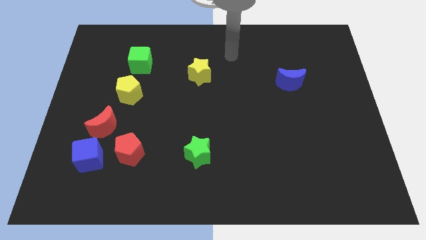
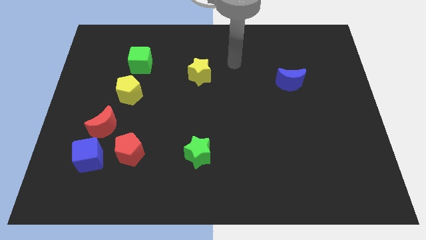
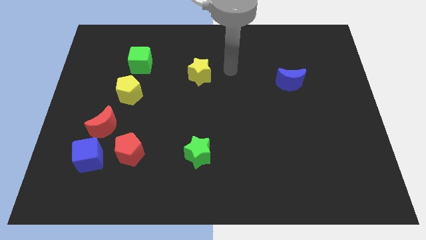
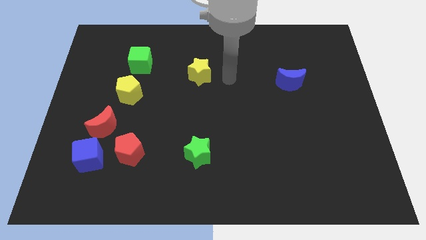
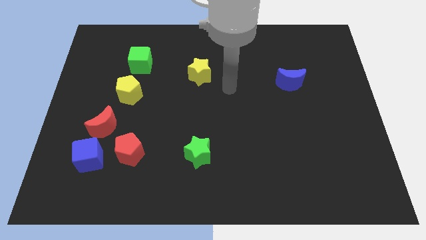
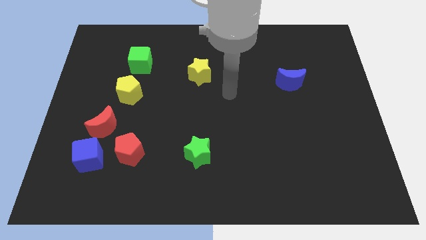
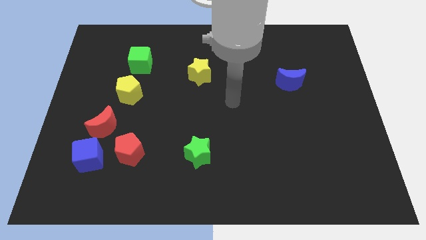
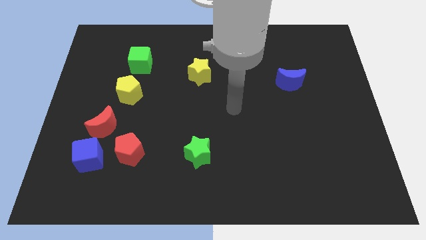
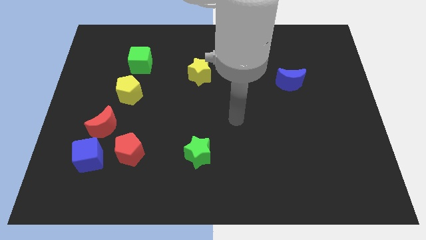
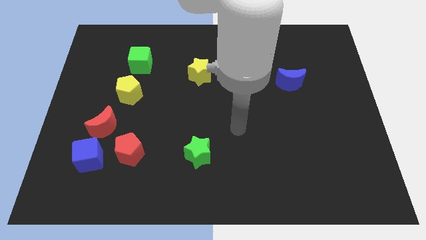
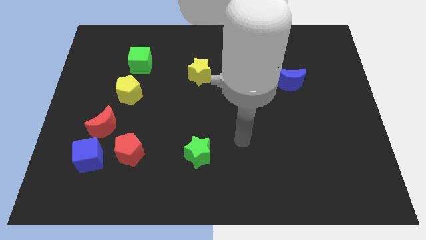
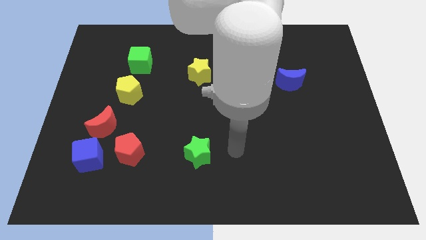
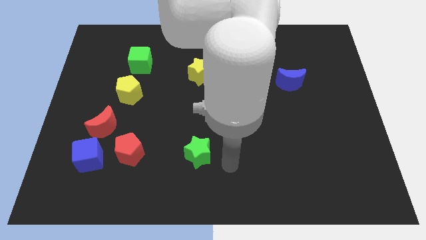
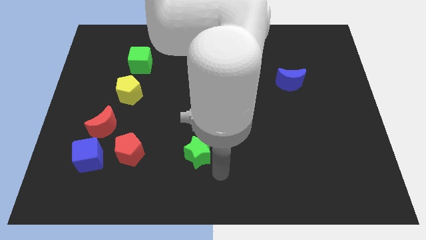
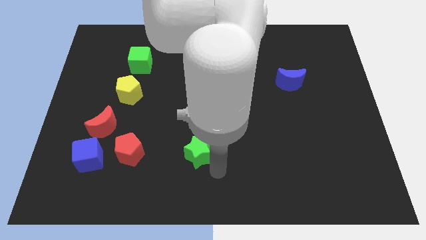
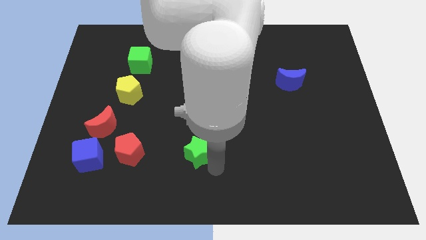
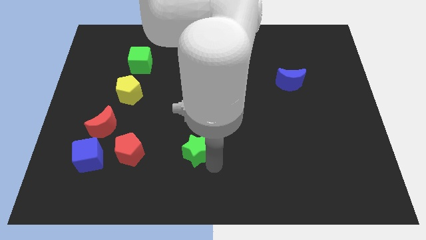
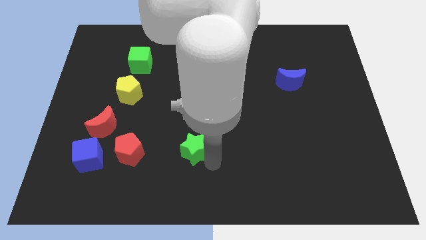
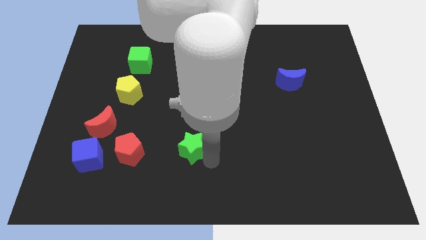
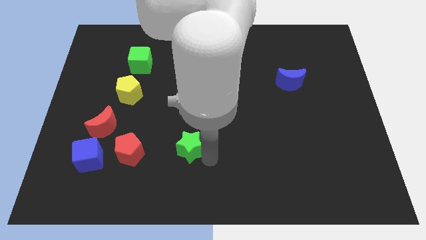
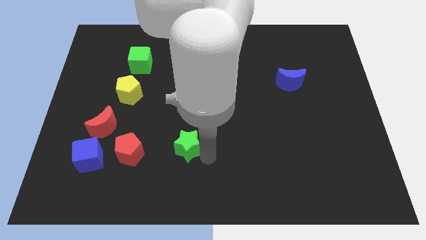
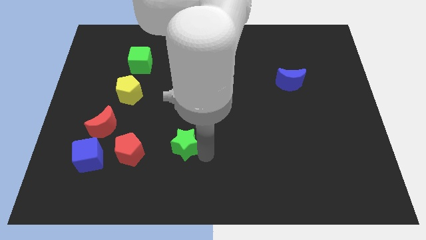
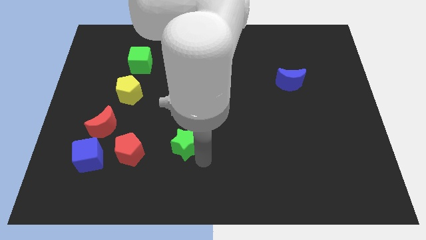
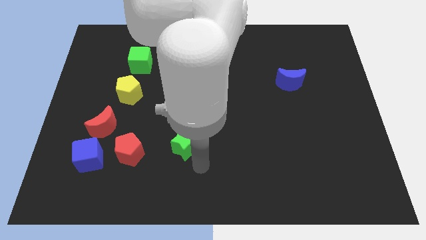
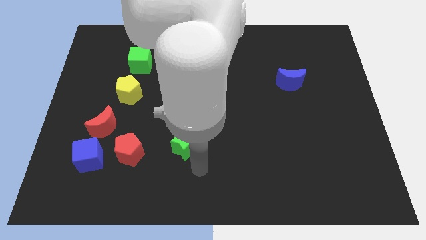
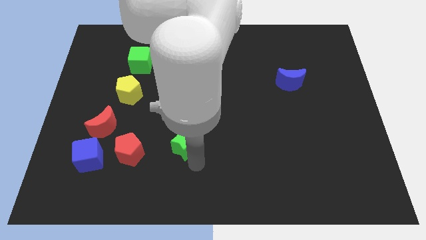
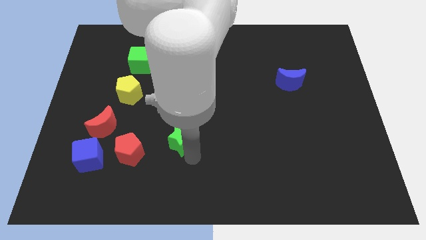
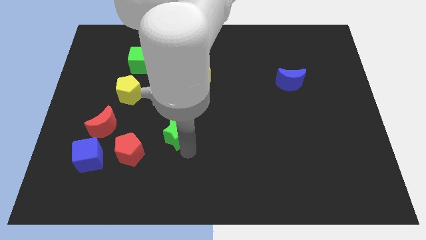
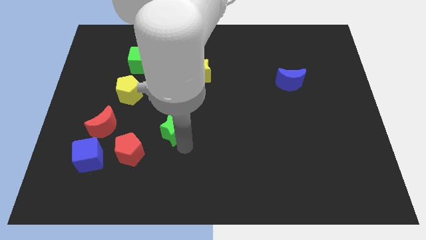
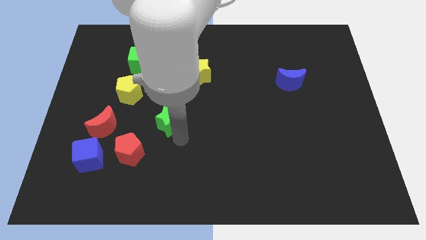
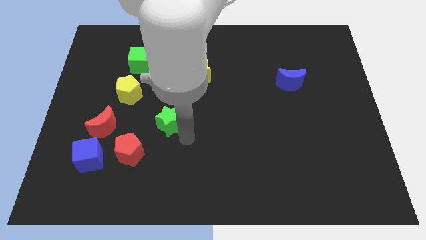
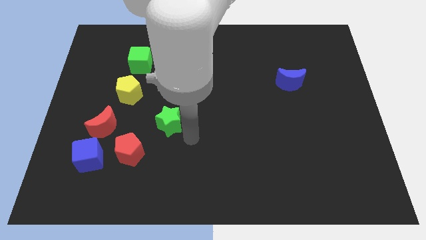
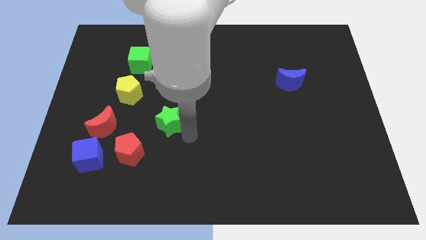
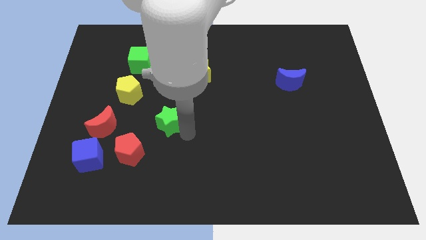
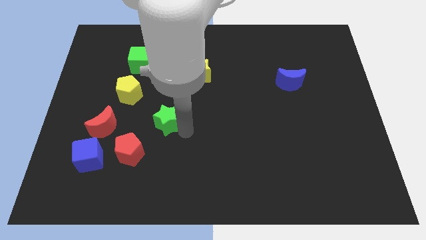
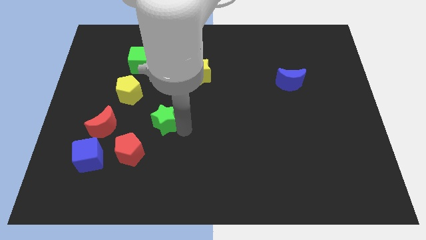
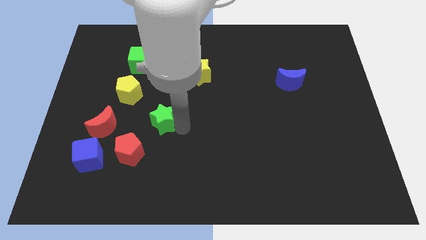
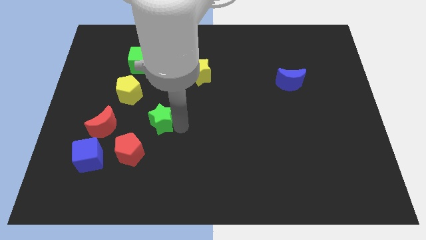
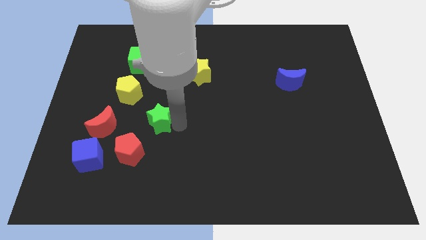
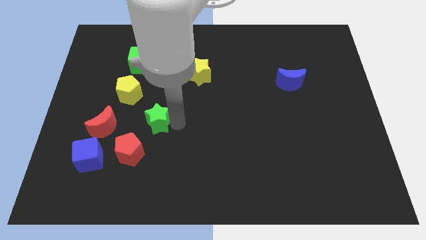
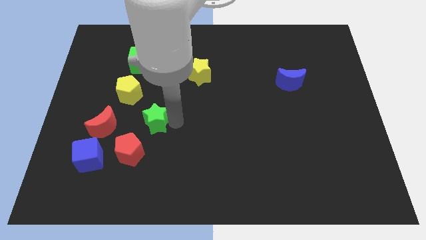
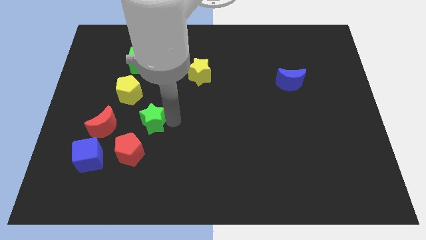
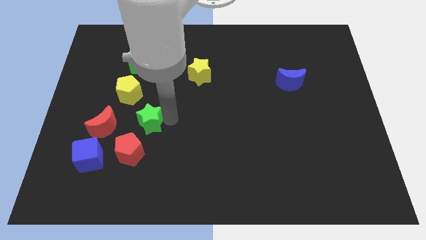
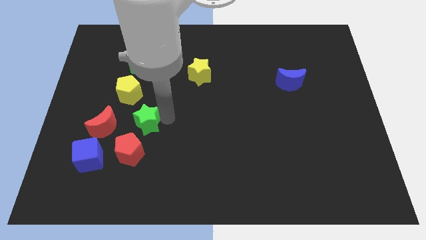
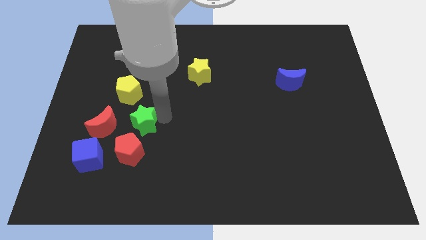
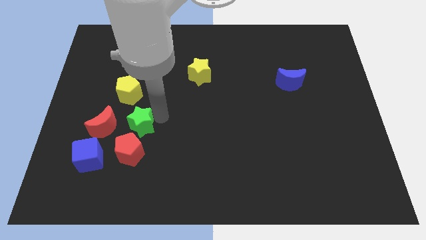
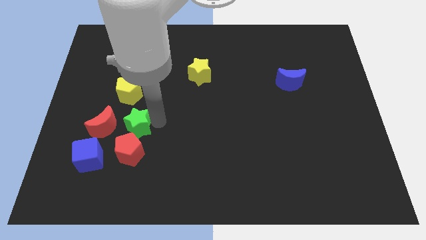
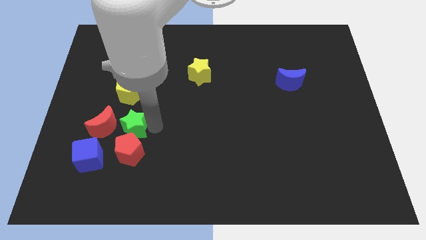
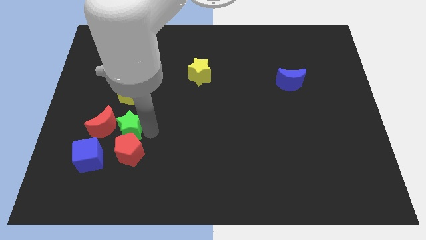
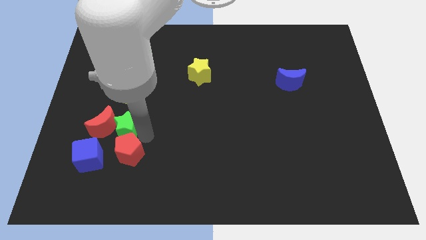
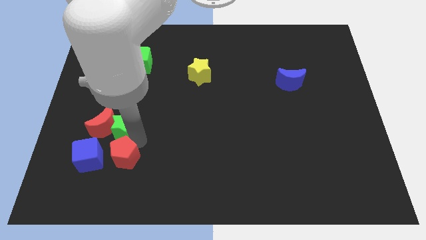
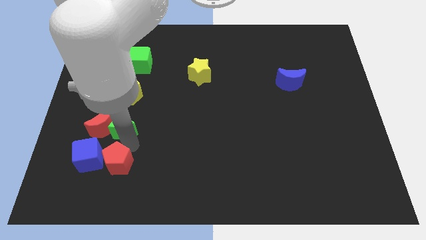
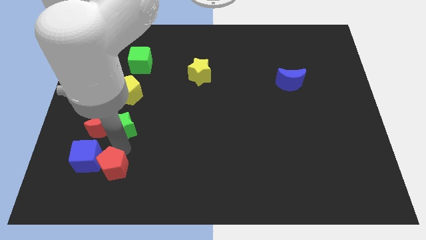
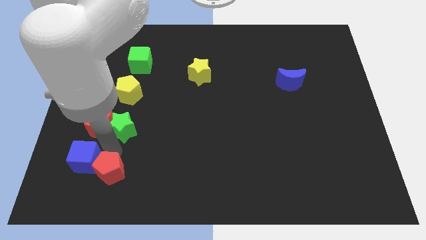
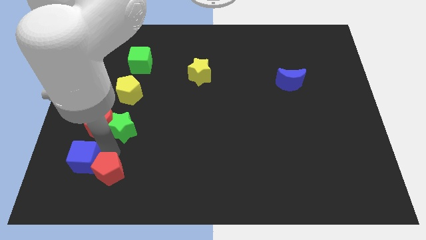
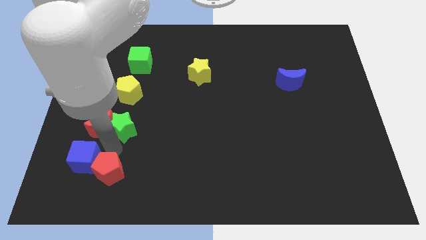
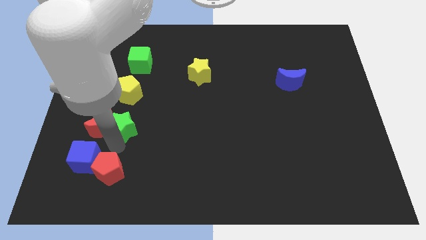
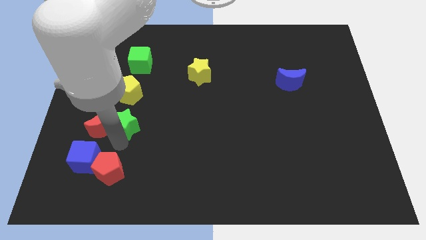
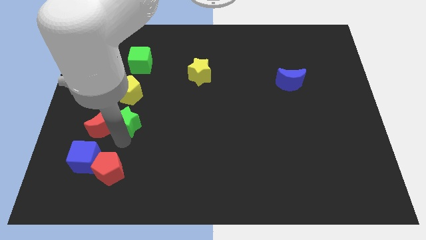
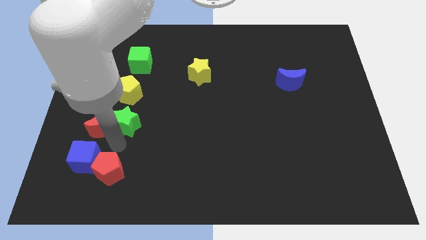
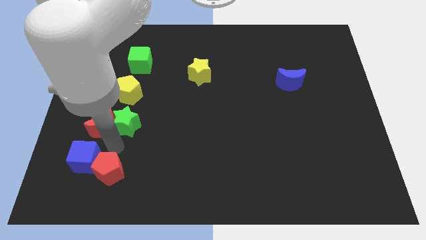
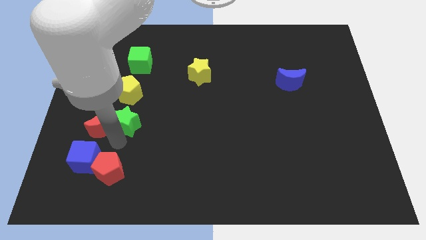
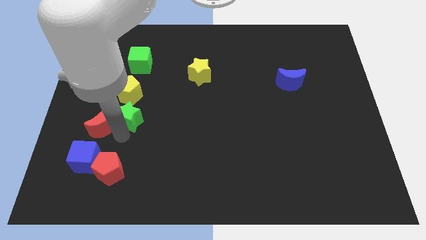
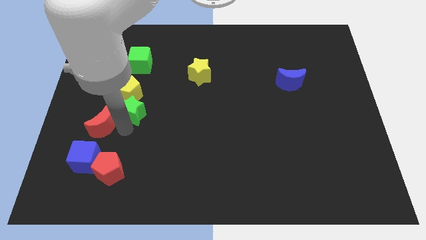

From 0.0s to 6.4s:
move the green star close to the yellow pentagon
